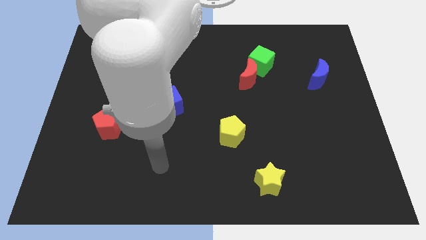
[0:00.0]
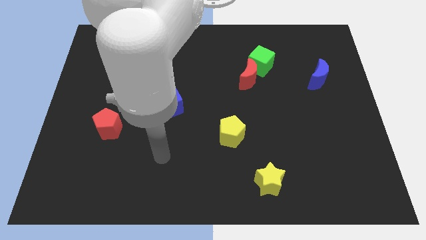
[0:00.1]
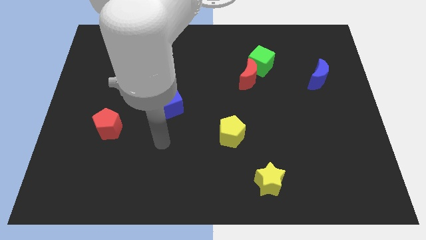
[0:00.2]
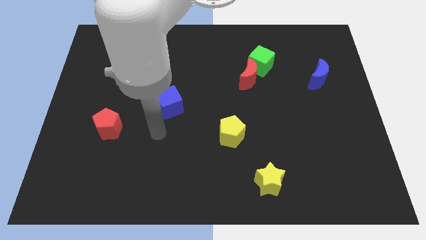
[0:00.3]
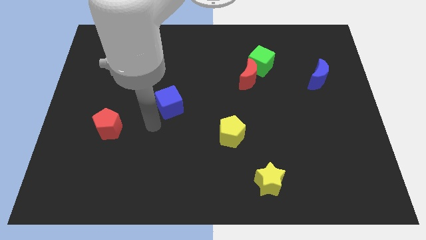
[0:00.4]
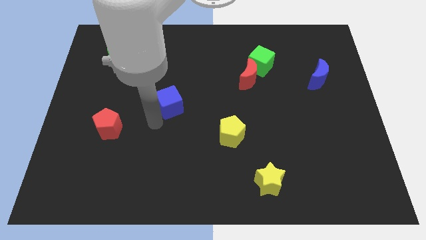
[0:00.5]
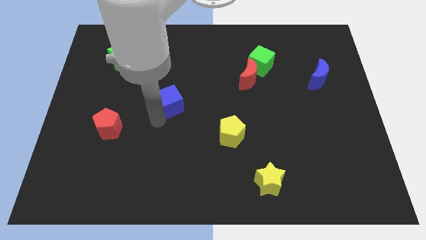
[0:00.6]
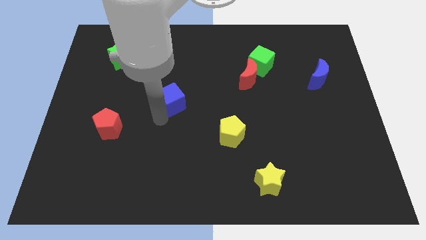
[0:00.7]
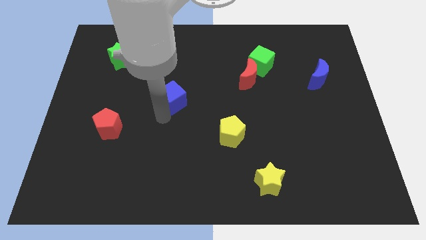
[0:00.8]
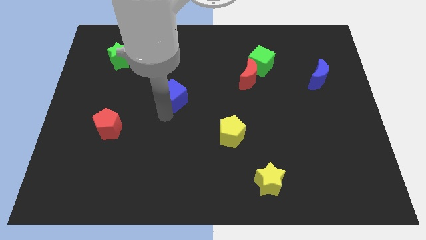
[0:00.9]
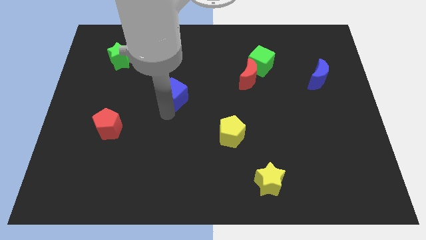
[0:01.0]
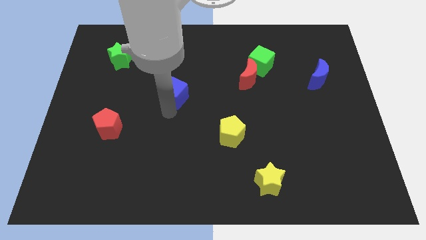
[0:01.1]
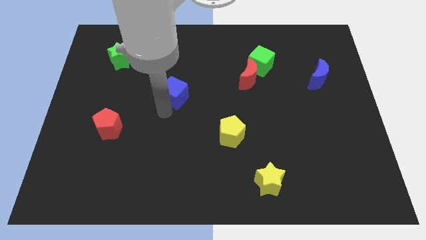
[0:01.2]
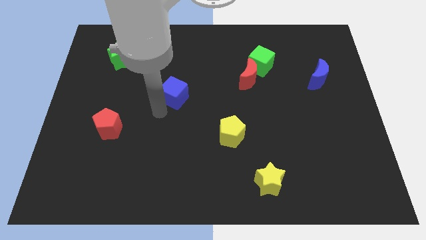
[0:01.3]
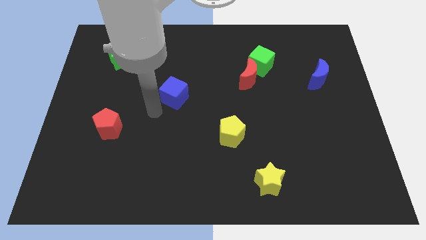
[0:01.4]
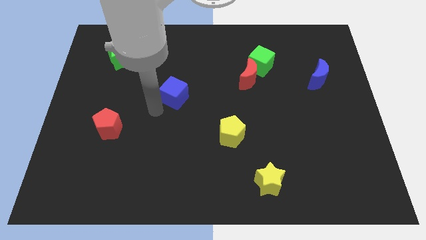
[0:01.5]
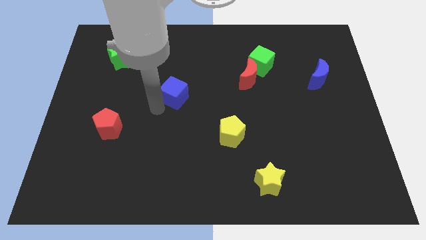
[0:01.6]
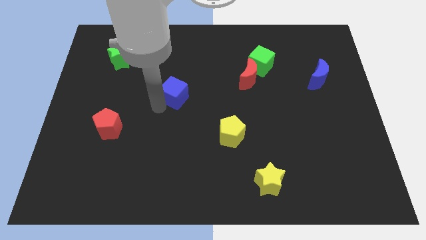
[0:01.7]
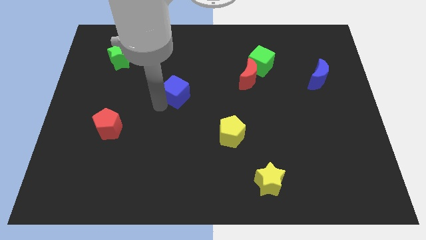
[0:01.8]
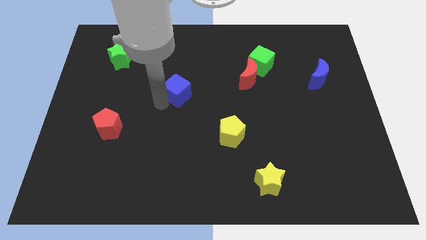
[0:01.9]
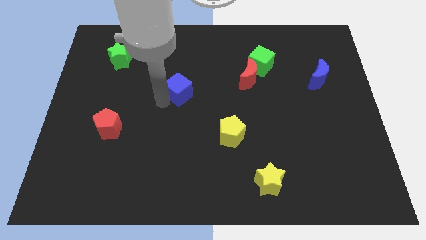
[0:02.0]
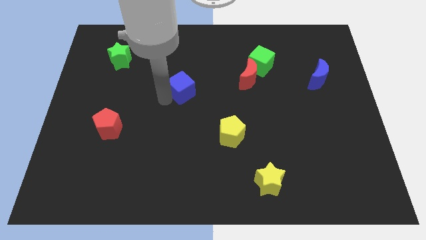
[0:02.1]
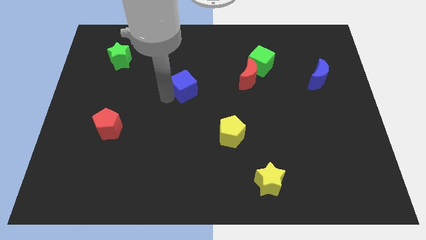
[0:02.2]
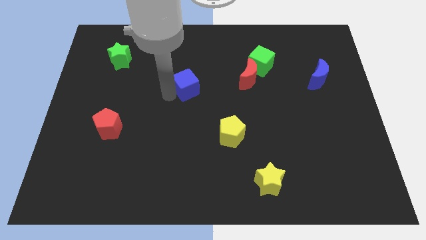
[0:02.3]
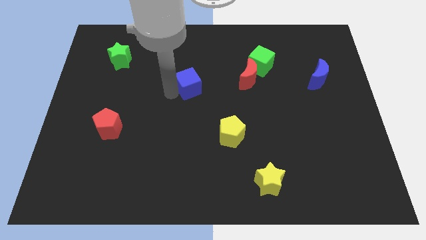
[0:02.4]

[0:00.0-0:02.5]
push the blue cube a little bit up and to the right diagonally

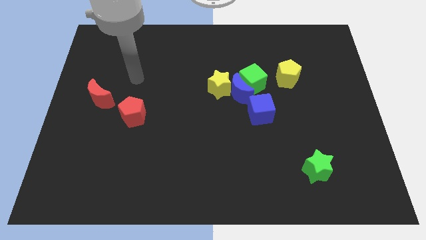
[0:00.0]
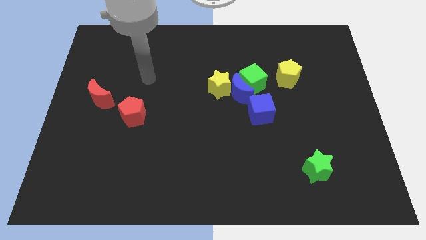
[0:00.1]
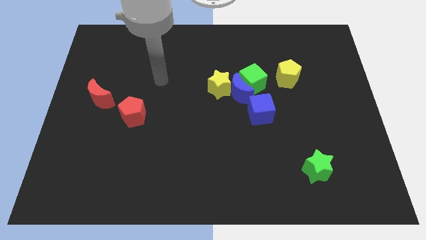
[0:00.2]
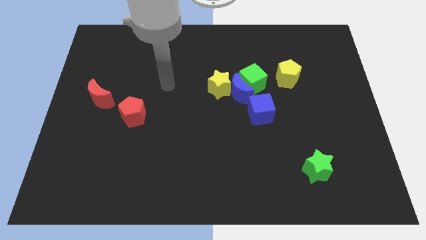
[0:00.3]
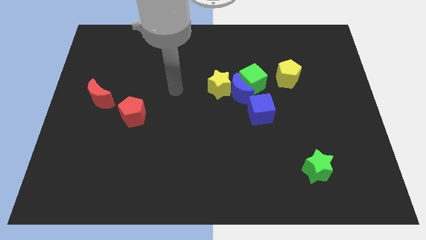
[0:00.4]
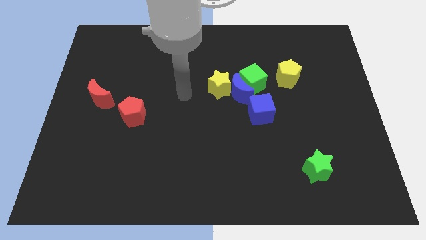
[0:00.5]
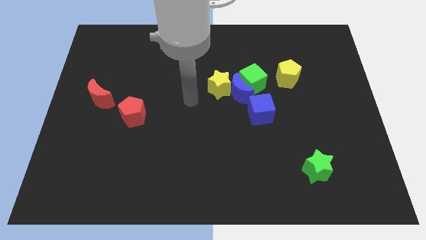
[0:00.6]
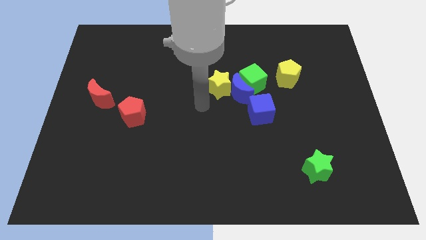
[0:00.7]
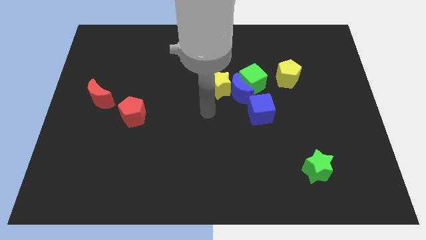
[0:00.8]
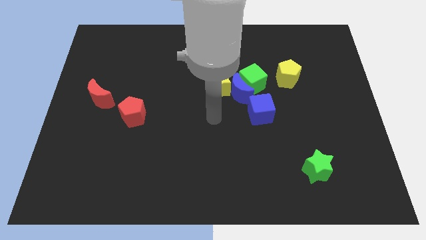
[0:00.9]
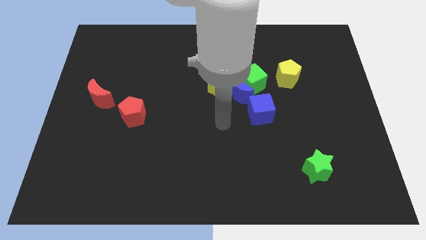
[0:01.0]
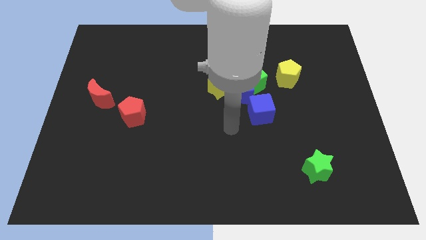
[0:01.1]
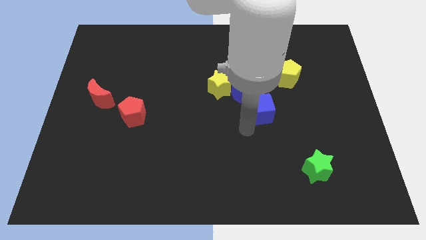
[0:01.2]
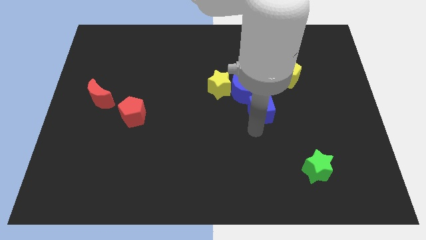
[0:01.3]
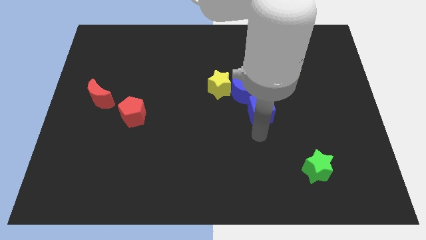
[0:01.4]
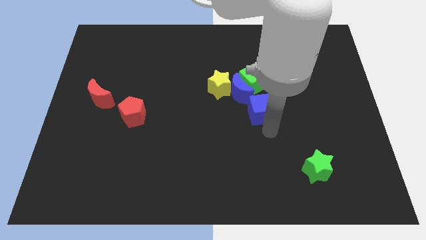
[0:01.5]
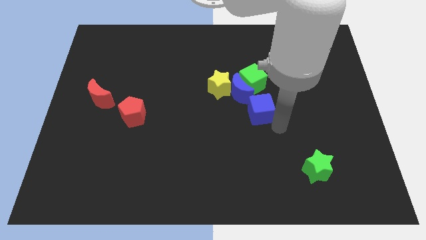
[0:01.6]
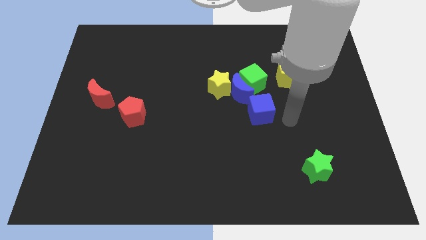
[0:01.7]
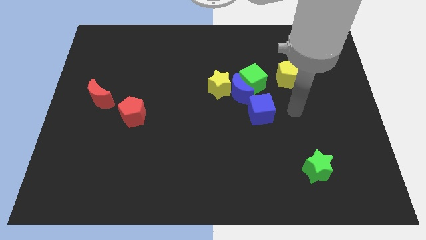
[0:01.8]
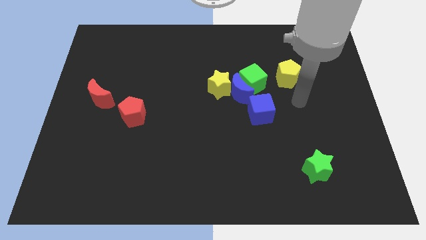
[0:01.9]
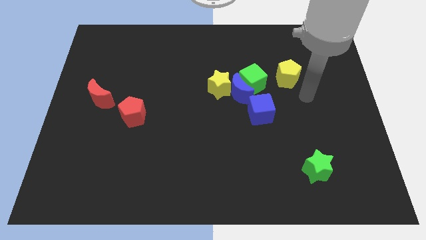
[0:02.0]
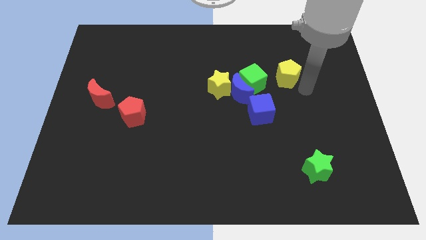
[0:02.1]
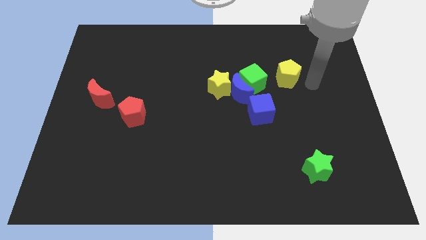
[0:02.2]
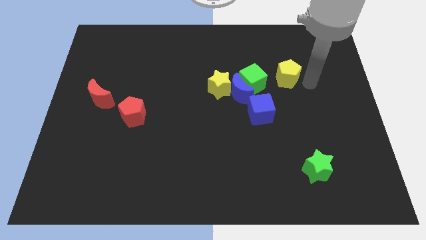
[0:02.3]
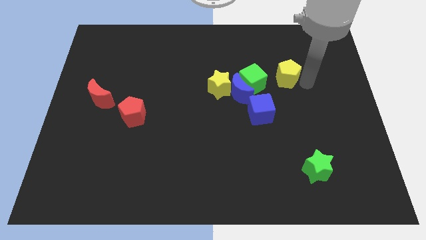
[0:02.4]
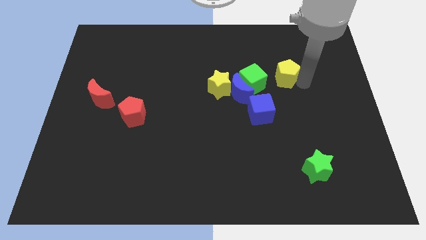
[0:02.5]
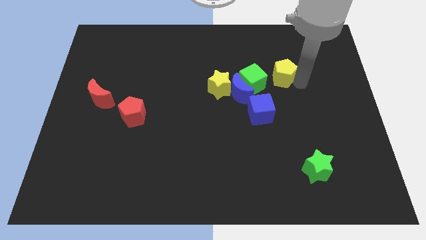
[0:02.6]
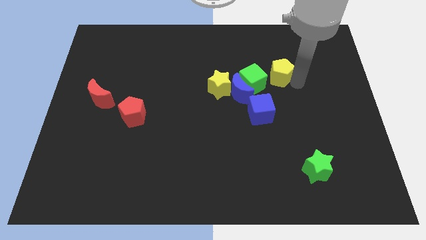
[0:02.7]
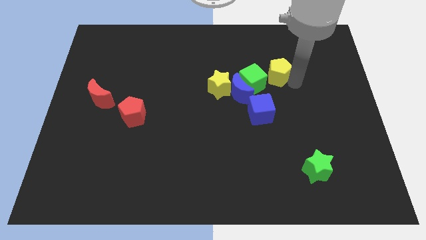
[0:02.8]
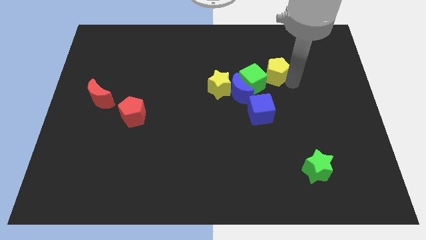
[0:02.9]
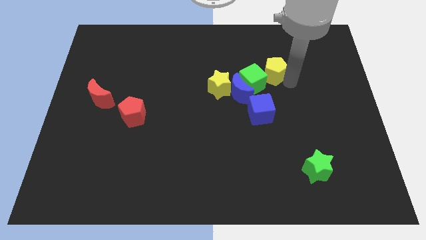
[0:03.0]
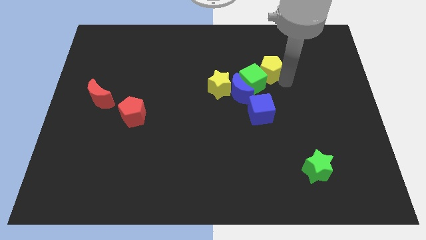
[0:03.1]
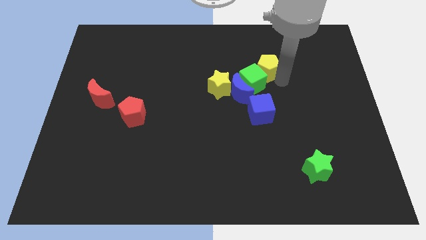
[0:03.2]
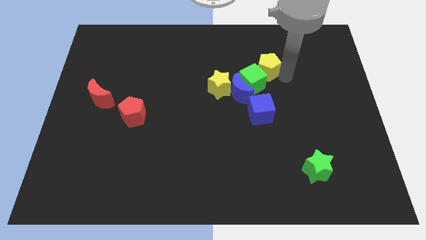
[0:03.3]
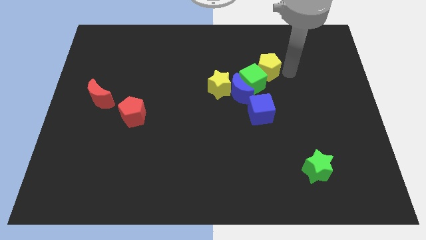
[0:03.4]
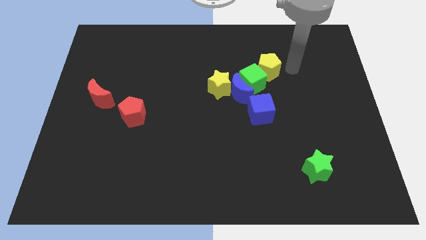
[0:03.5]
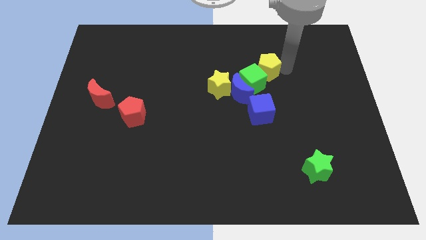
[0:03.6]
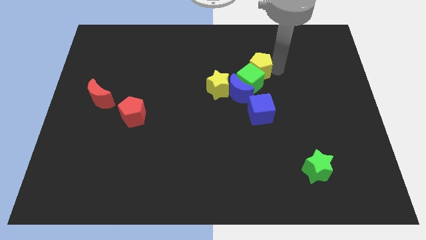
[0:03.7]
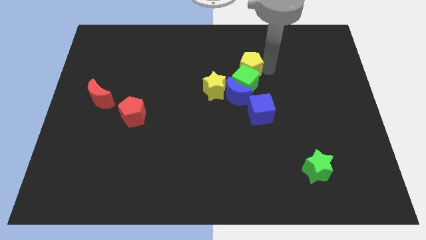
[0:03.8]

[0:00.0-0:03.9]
push the yellow pentagon somewhat left

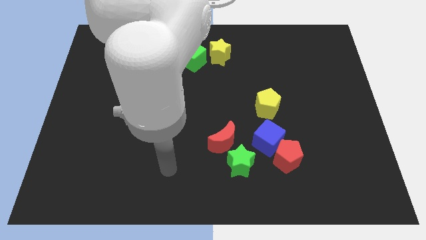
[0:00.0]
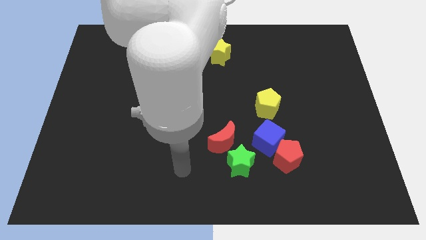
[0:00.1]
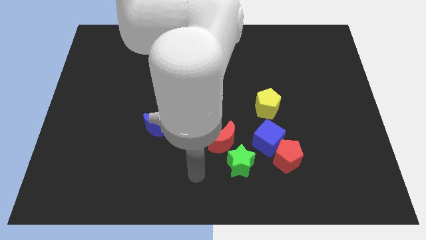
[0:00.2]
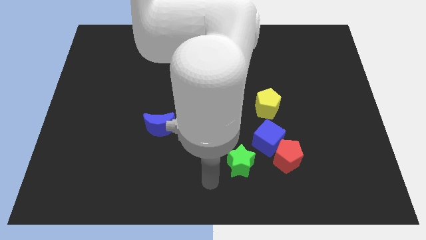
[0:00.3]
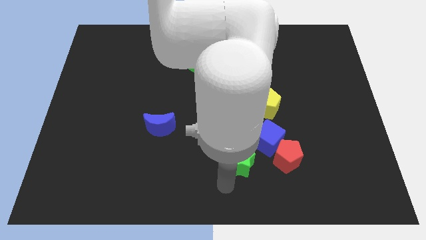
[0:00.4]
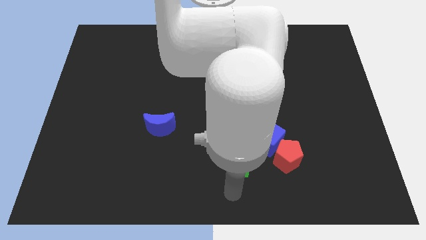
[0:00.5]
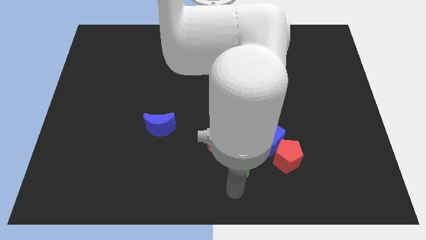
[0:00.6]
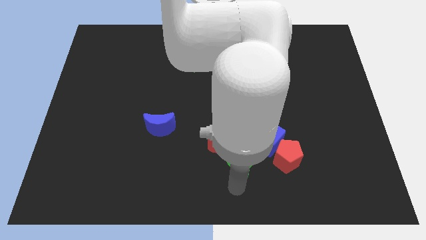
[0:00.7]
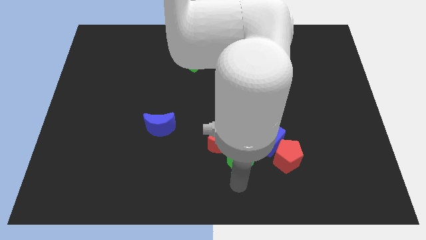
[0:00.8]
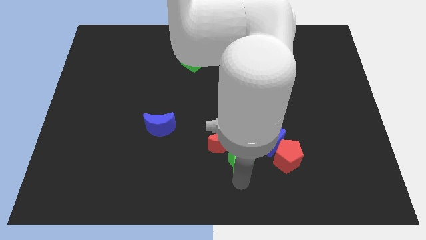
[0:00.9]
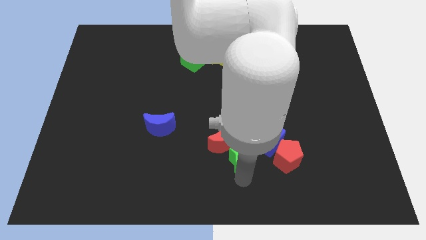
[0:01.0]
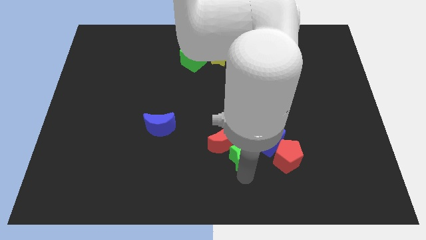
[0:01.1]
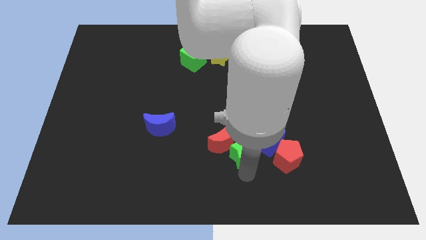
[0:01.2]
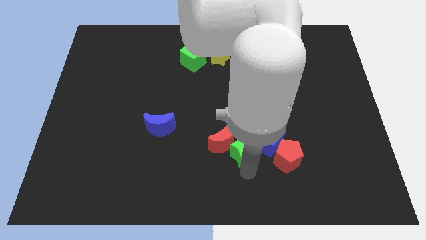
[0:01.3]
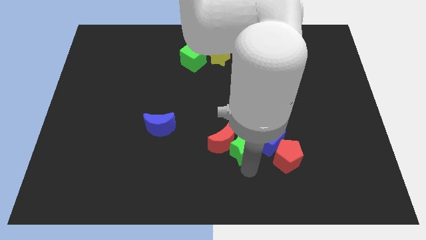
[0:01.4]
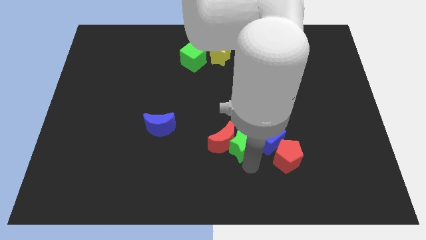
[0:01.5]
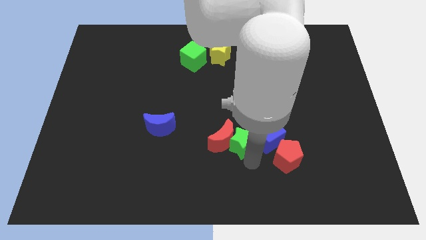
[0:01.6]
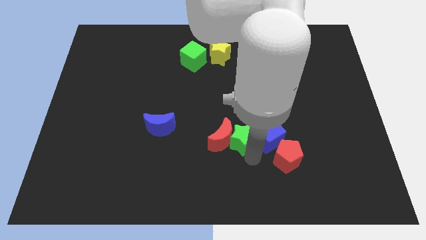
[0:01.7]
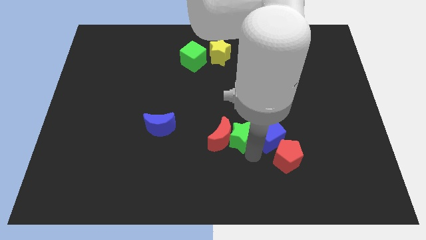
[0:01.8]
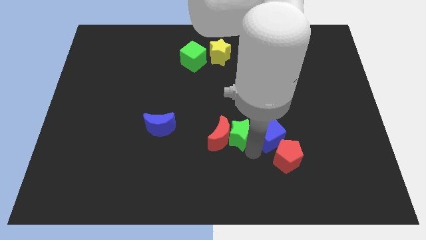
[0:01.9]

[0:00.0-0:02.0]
push the green star slightly upwards
